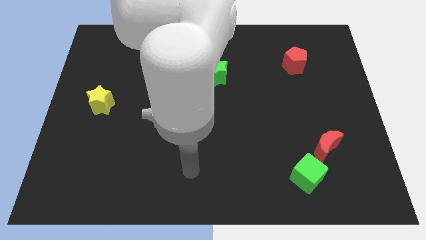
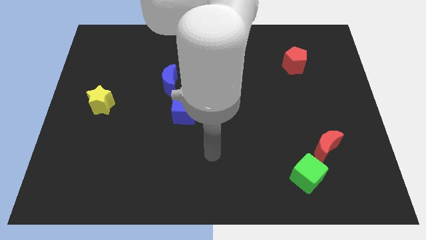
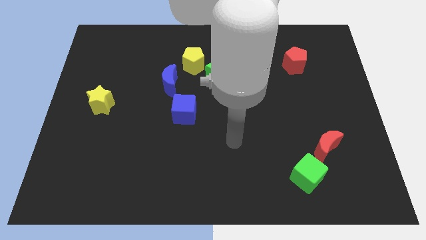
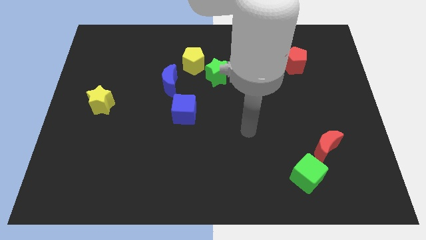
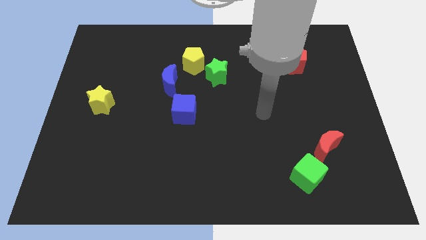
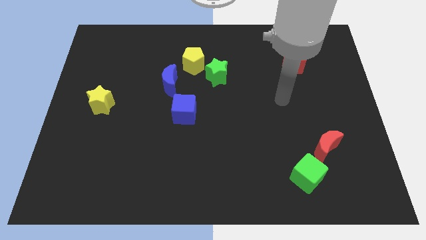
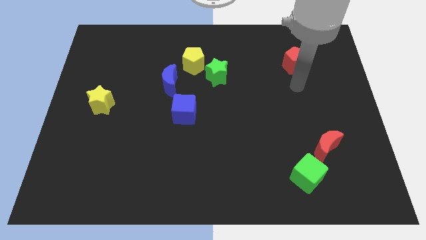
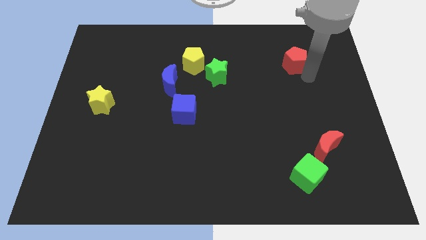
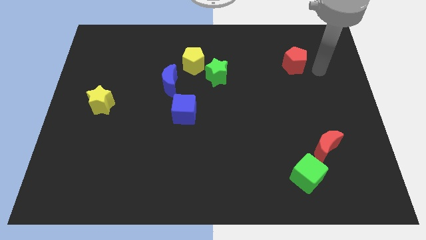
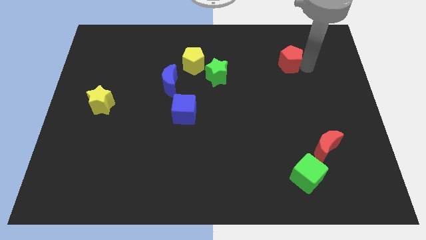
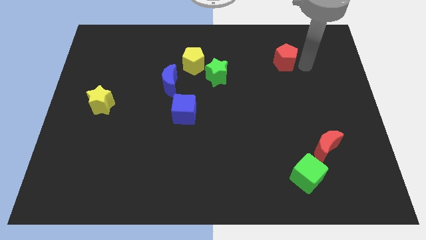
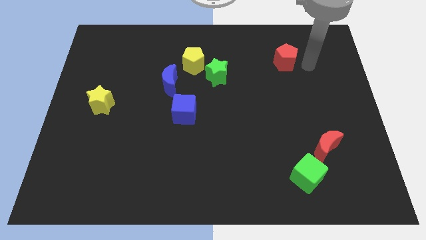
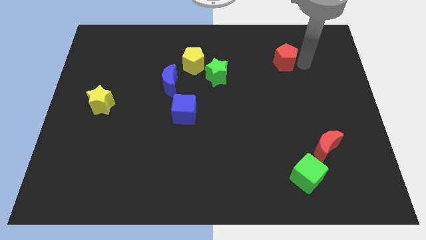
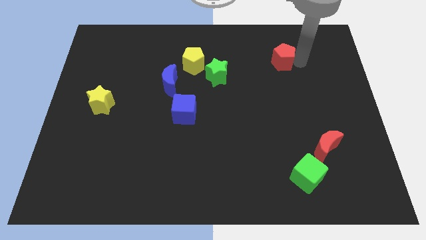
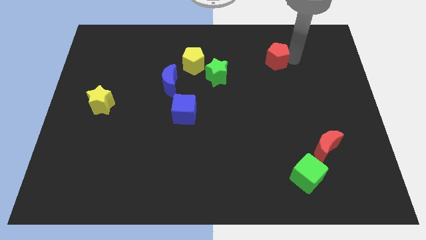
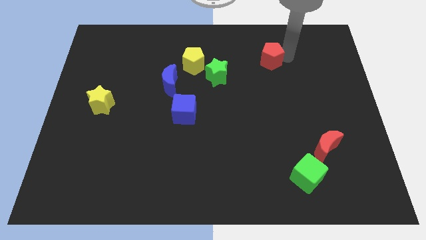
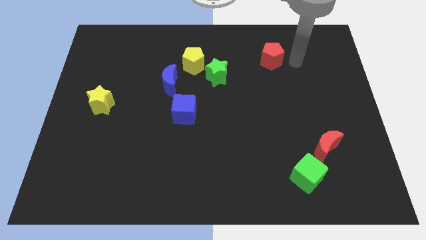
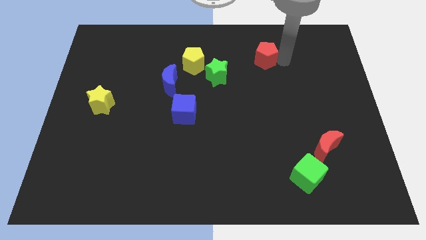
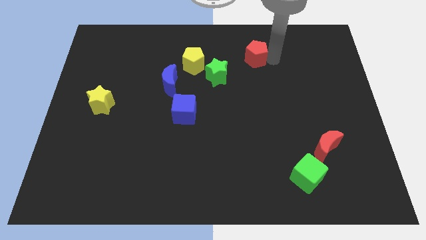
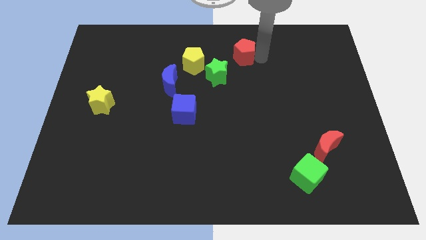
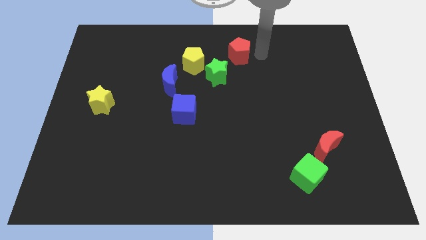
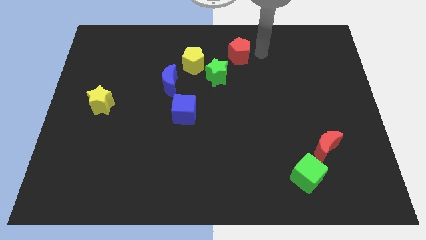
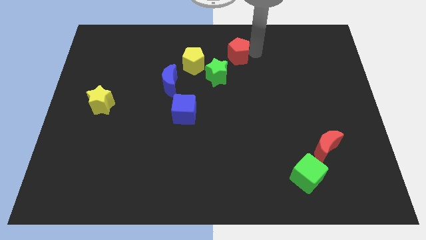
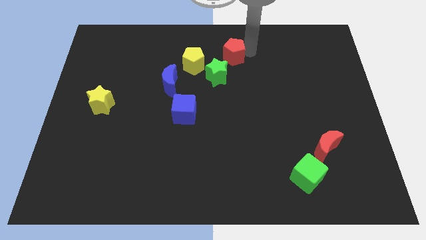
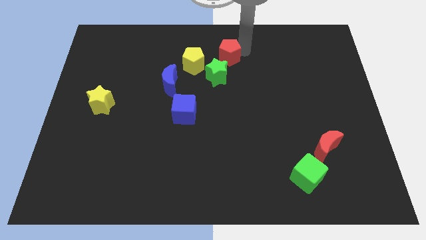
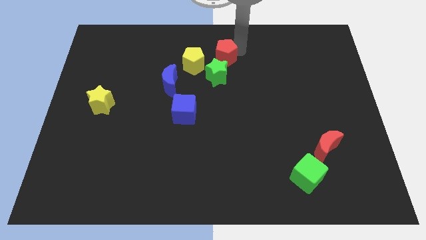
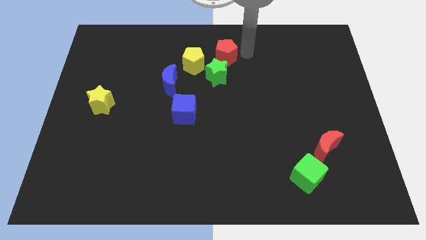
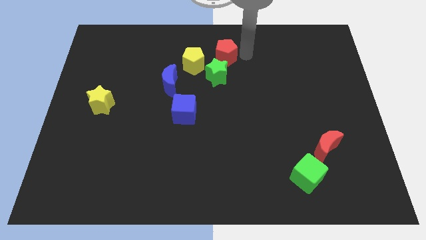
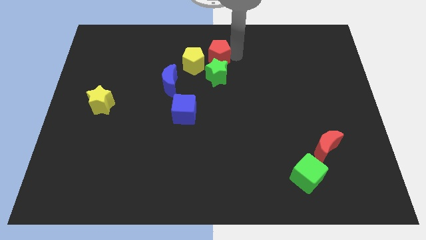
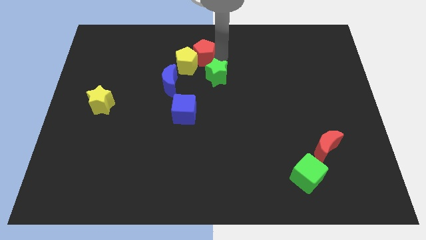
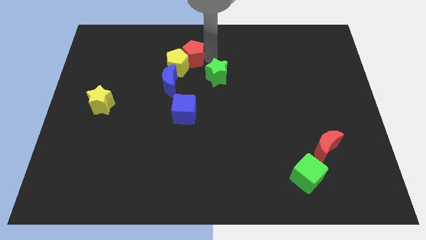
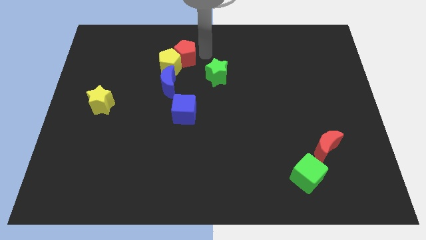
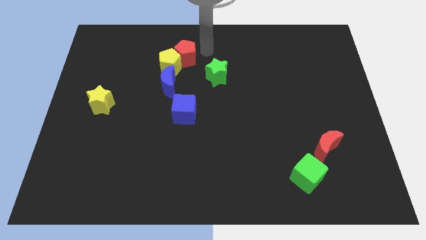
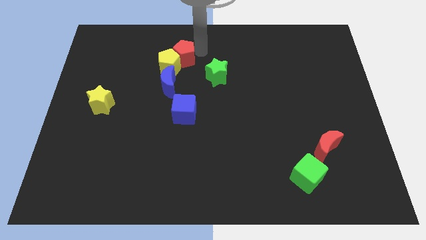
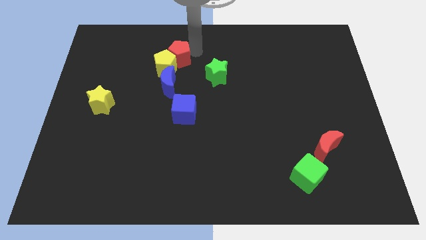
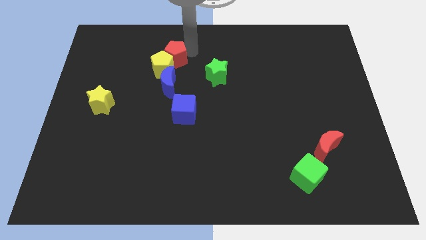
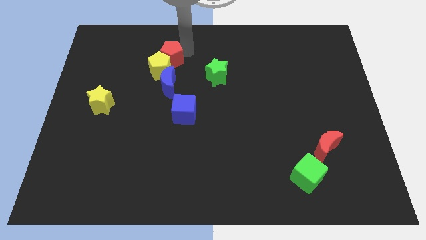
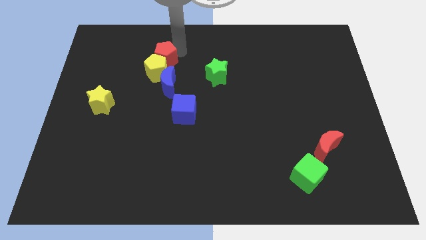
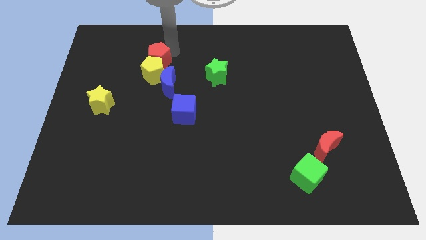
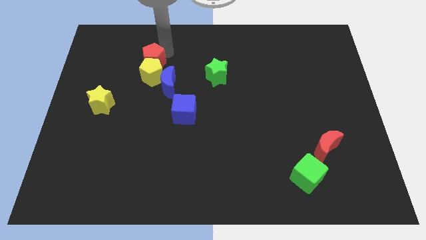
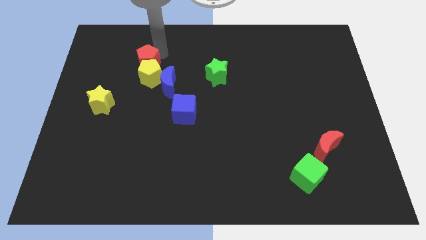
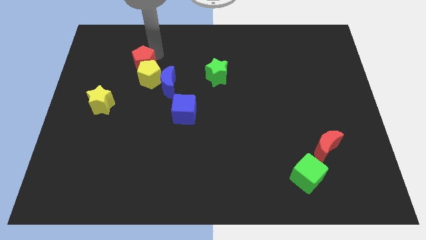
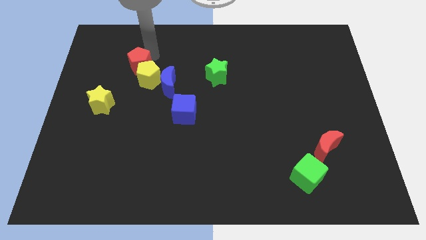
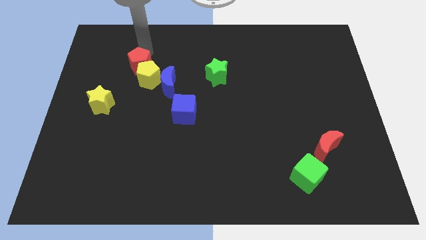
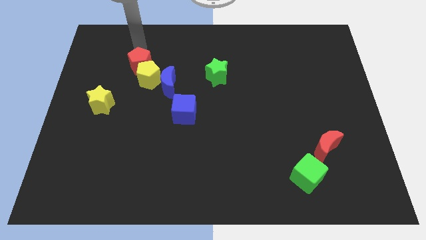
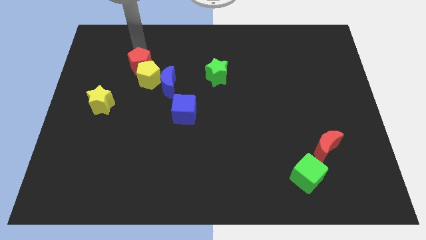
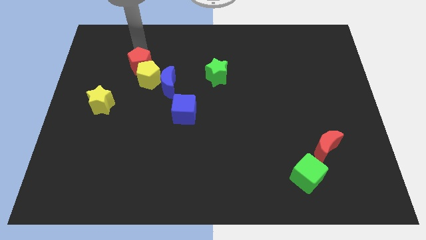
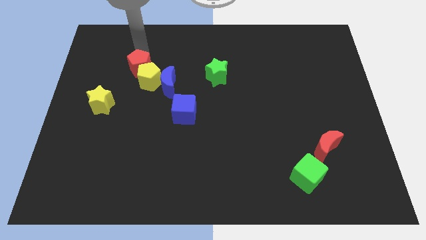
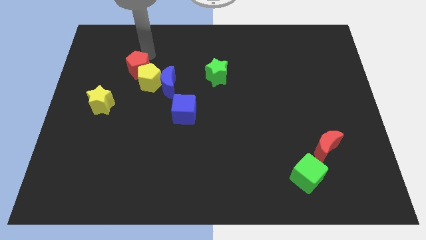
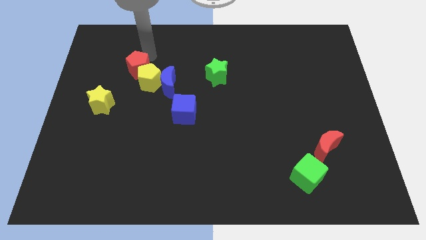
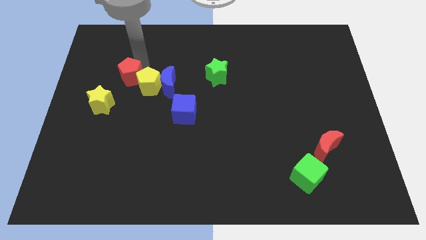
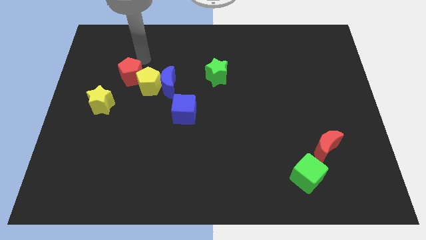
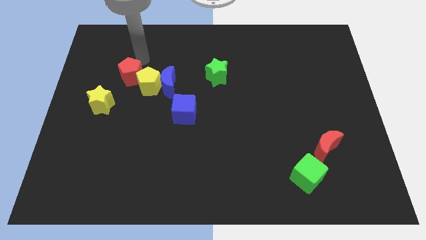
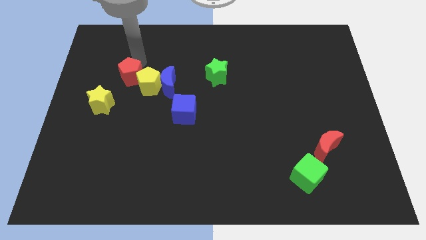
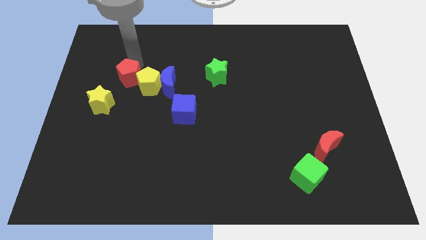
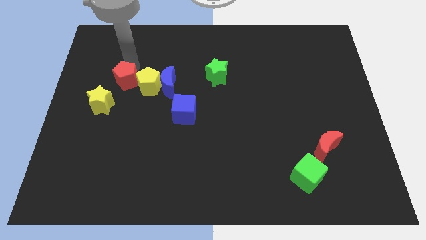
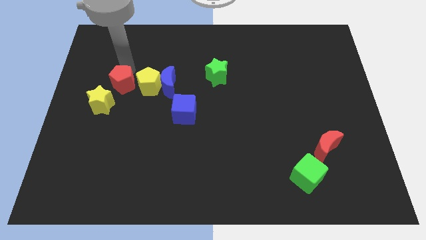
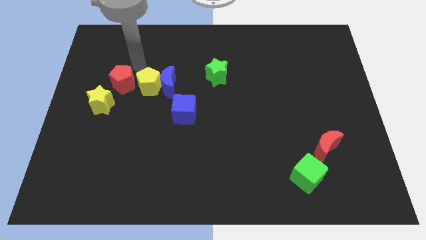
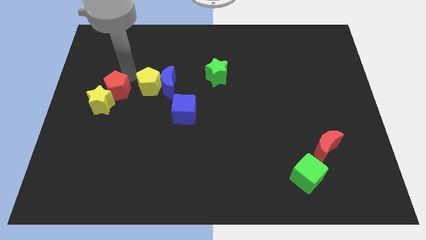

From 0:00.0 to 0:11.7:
push the red pentagon next to the yellow star

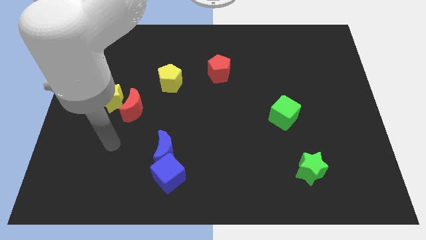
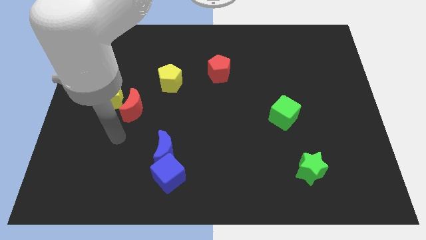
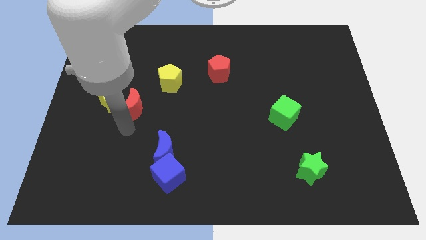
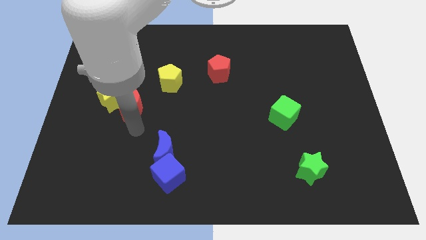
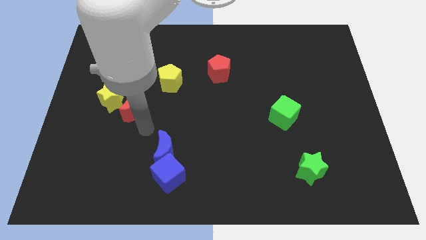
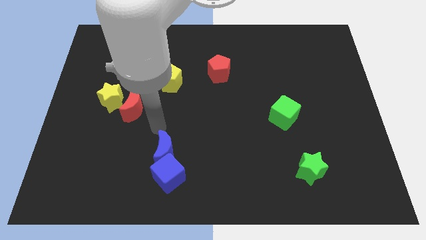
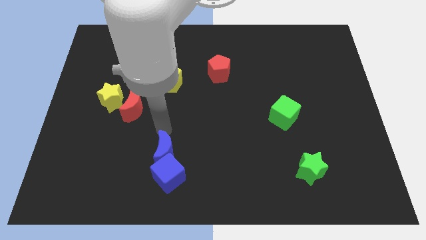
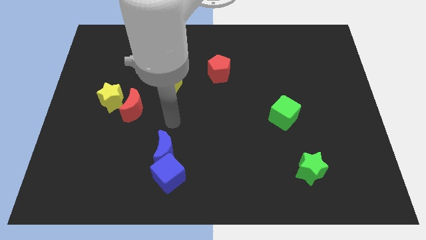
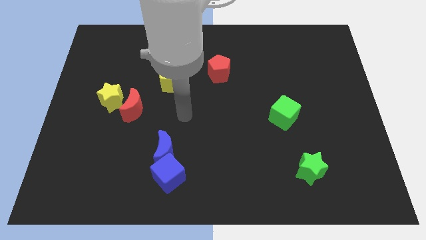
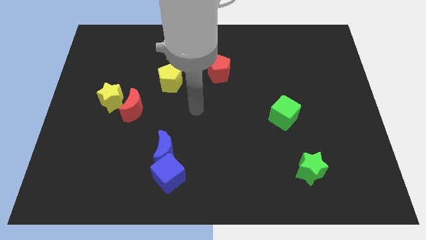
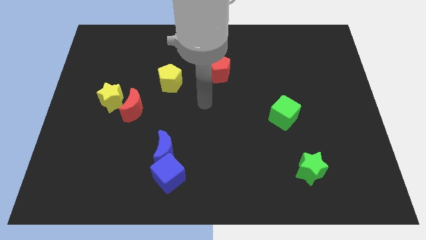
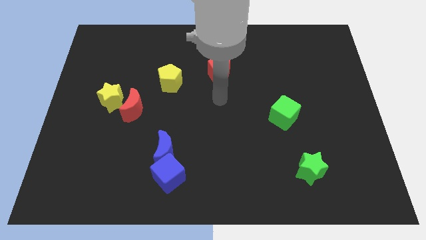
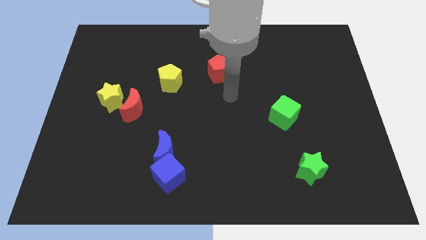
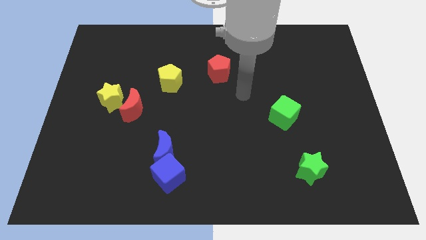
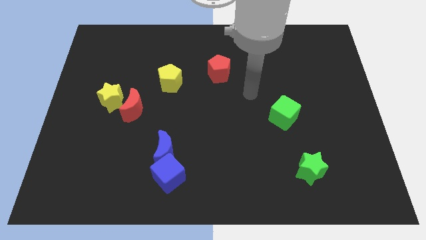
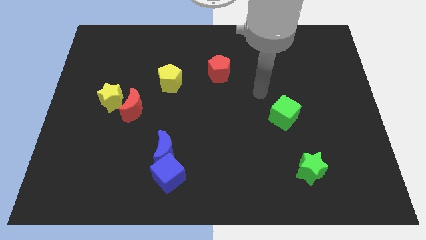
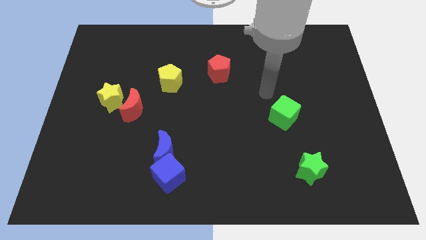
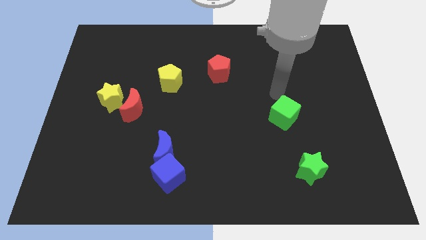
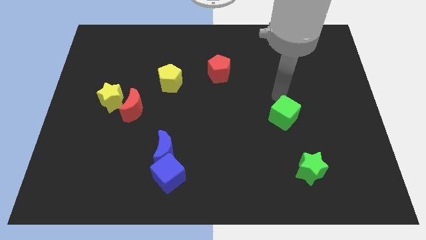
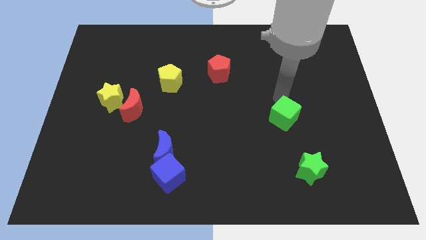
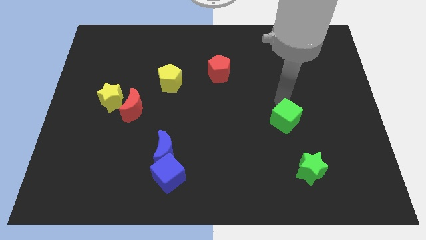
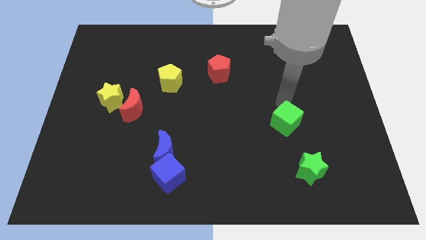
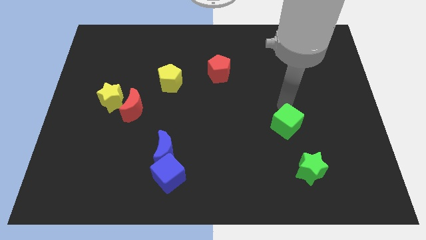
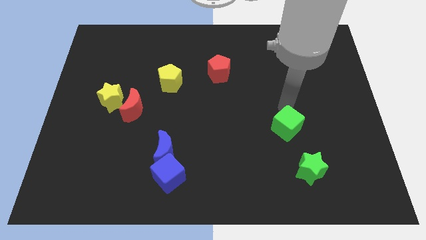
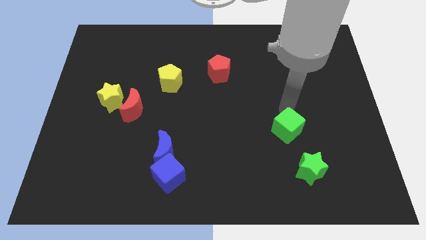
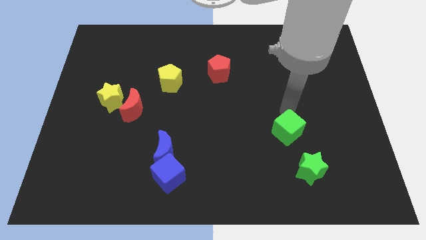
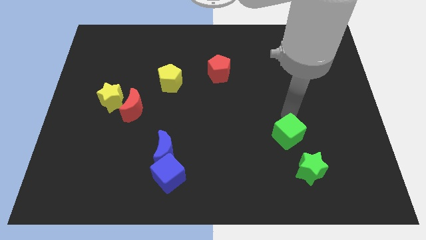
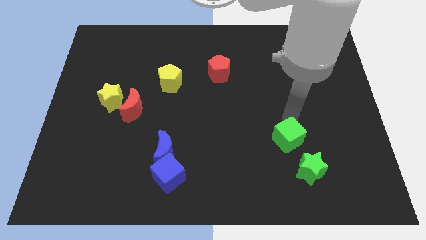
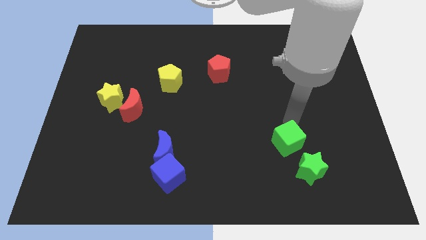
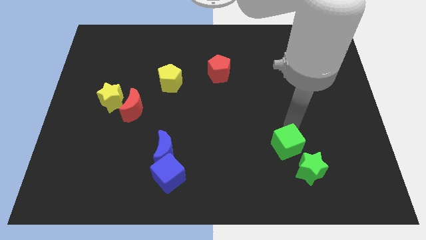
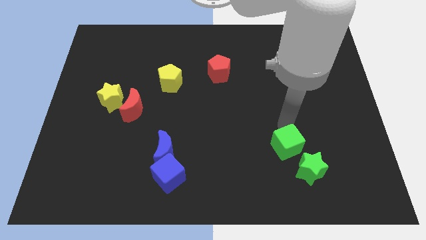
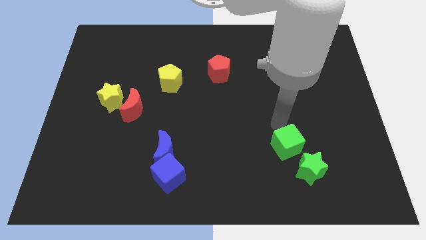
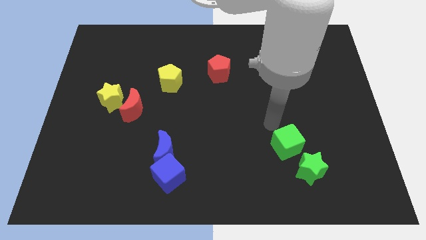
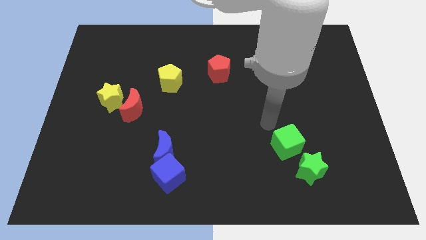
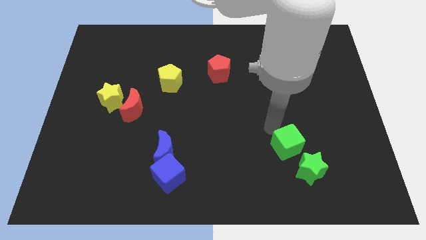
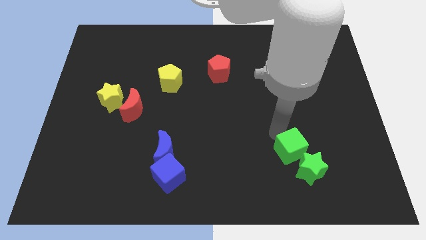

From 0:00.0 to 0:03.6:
slide the green cube to the green star
